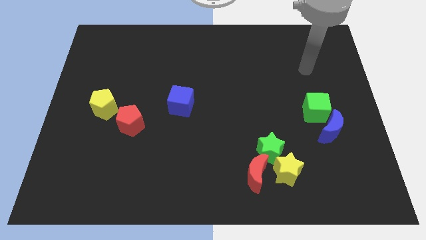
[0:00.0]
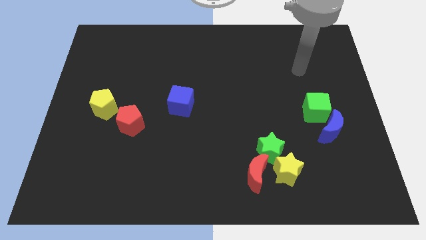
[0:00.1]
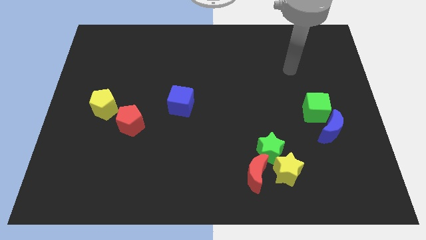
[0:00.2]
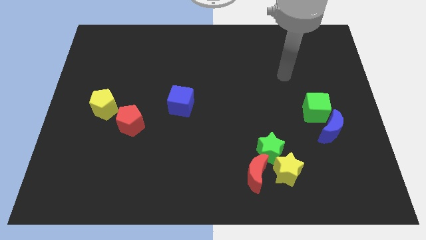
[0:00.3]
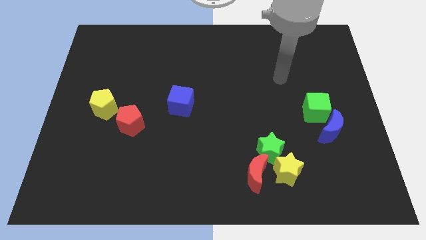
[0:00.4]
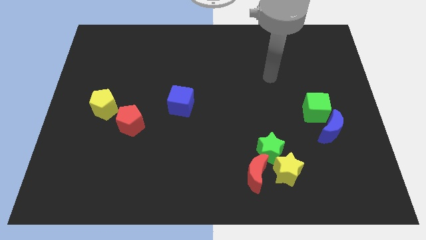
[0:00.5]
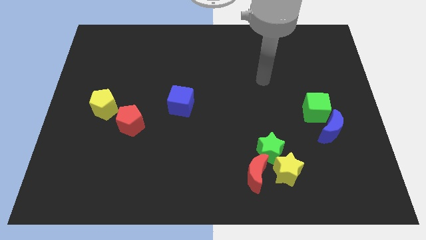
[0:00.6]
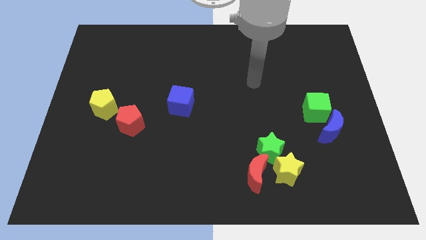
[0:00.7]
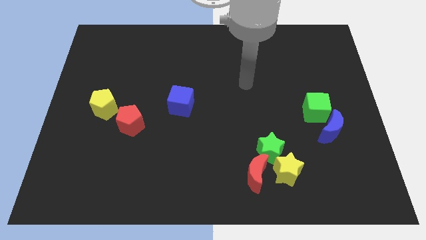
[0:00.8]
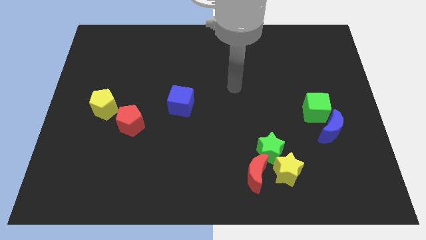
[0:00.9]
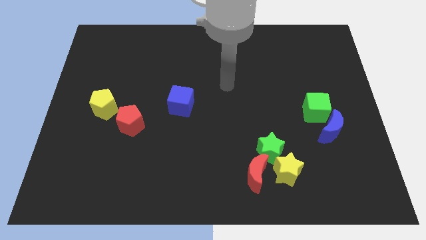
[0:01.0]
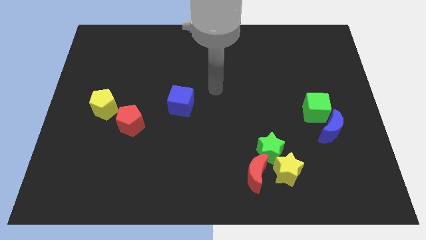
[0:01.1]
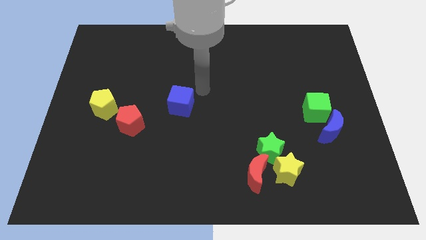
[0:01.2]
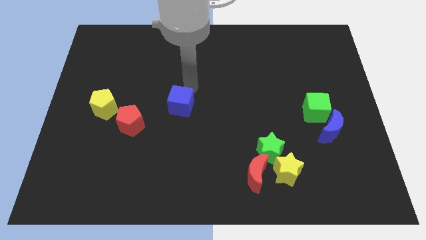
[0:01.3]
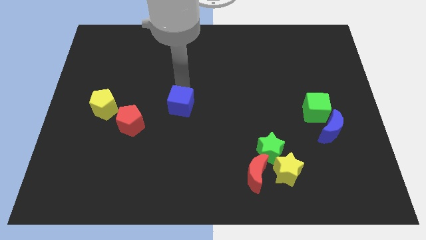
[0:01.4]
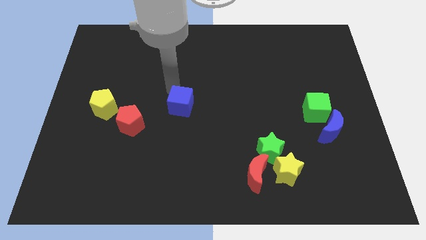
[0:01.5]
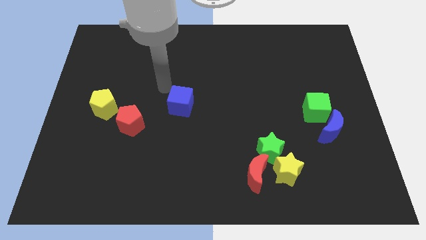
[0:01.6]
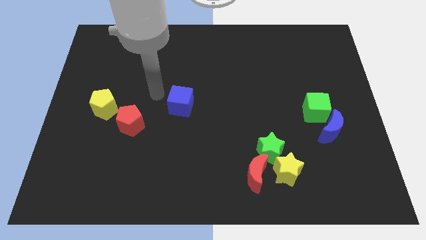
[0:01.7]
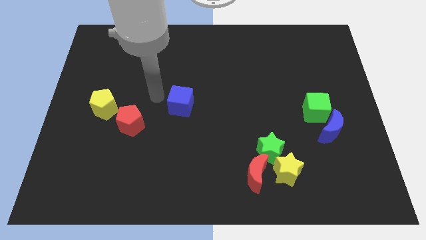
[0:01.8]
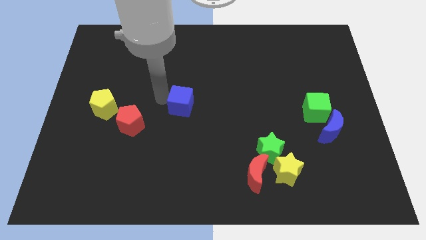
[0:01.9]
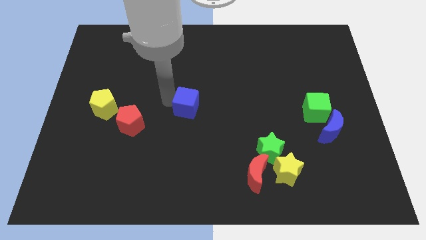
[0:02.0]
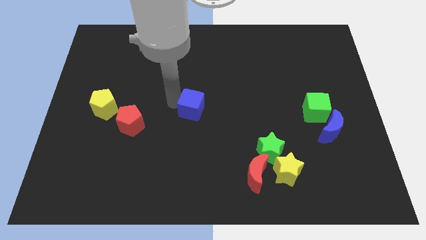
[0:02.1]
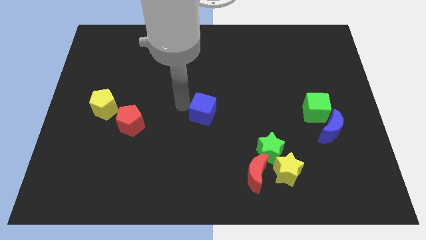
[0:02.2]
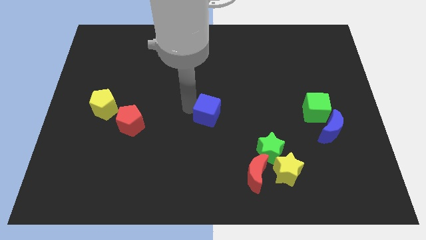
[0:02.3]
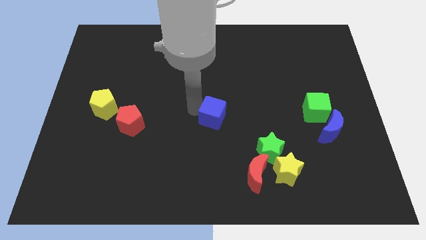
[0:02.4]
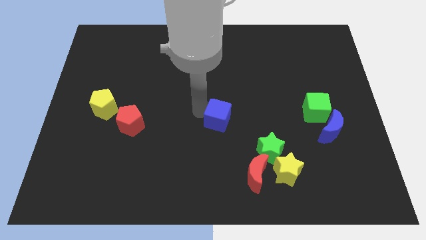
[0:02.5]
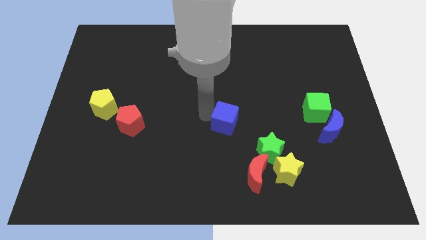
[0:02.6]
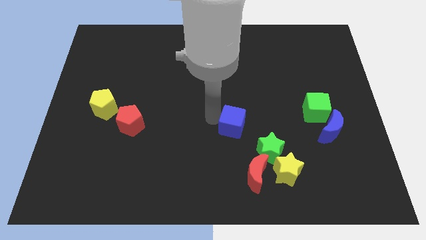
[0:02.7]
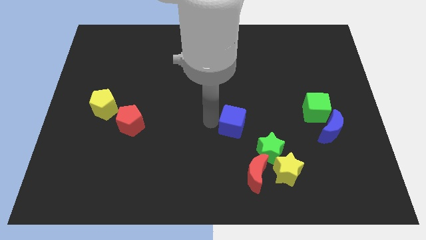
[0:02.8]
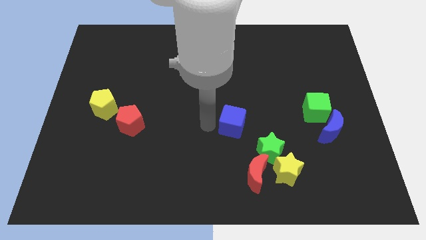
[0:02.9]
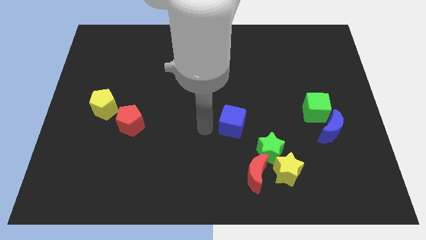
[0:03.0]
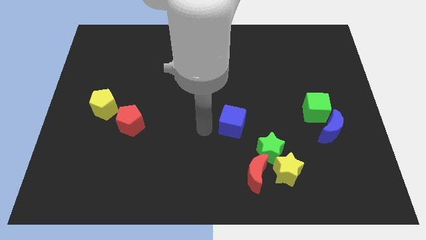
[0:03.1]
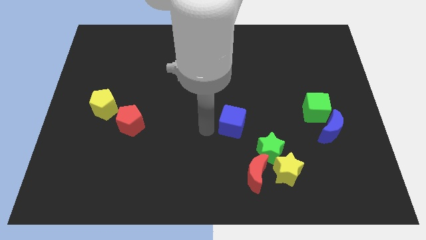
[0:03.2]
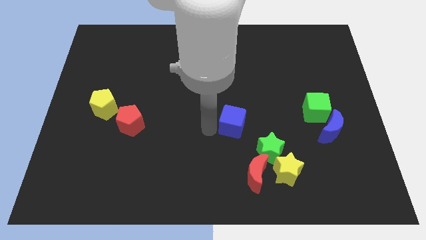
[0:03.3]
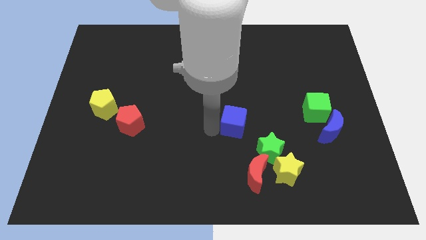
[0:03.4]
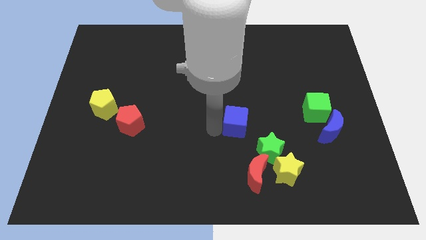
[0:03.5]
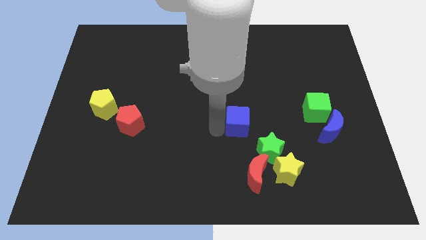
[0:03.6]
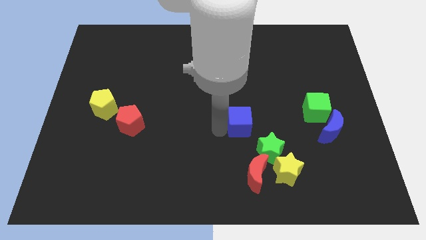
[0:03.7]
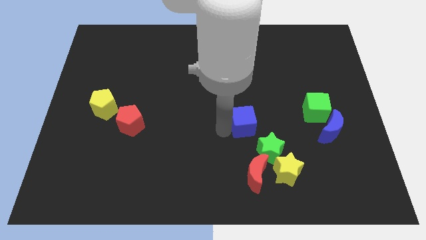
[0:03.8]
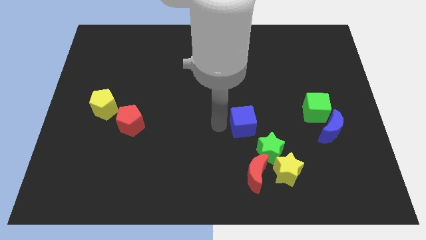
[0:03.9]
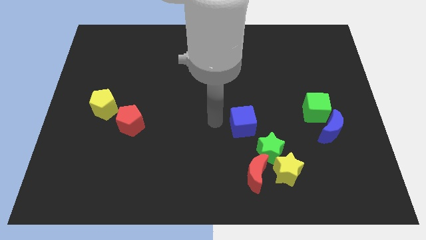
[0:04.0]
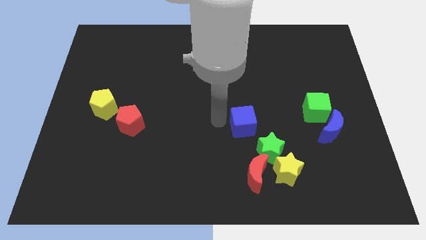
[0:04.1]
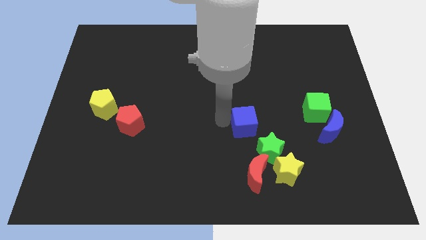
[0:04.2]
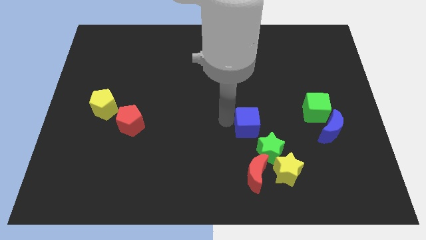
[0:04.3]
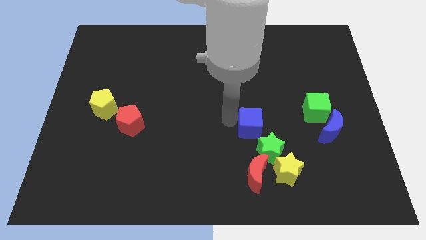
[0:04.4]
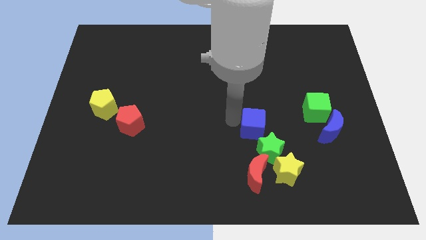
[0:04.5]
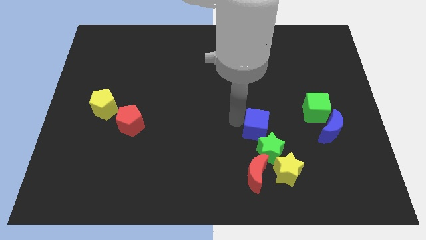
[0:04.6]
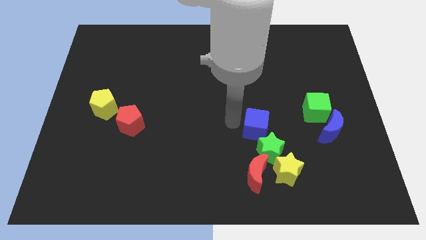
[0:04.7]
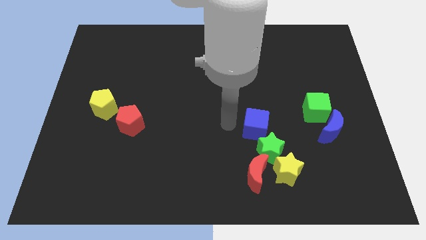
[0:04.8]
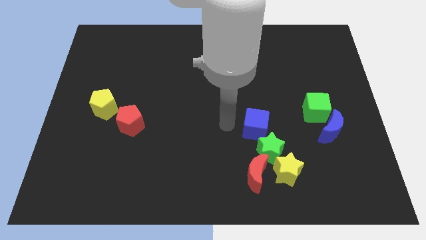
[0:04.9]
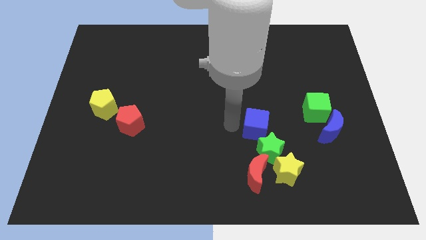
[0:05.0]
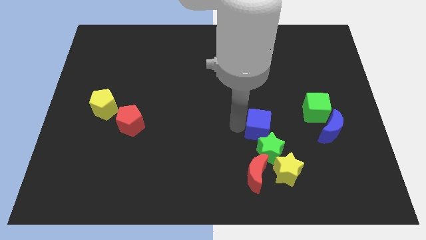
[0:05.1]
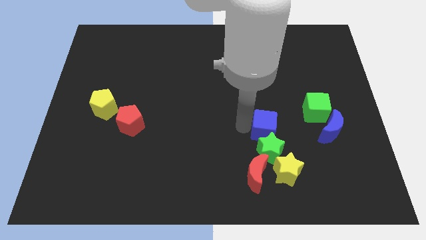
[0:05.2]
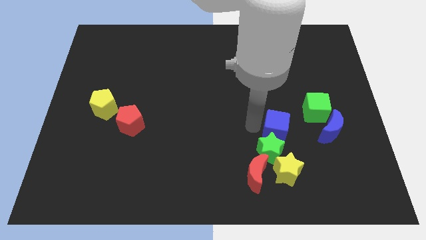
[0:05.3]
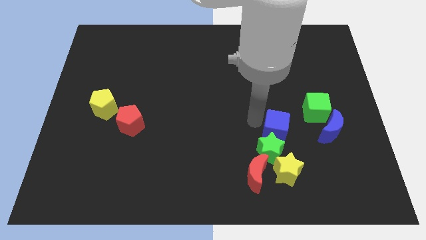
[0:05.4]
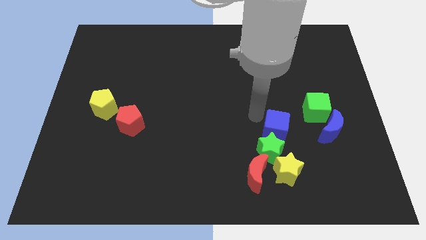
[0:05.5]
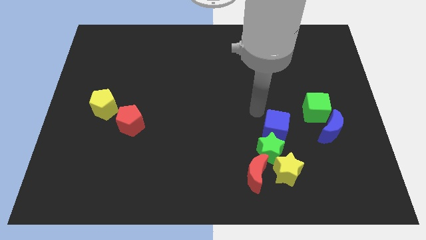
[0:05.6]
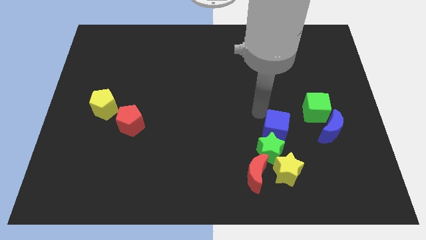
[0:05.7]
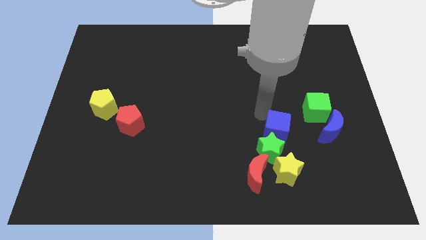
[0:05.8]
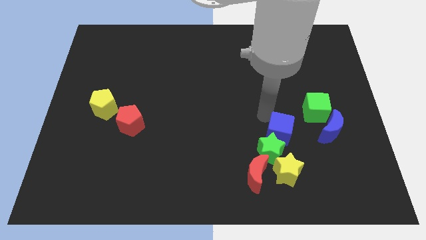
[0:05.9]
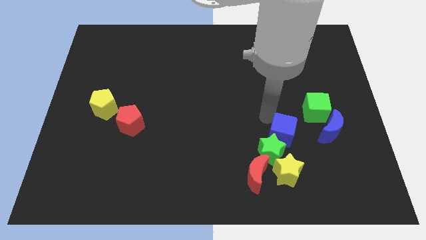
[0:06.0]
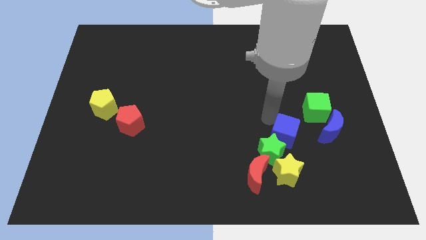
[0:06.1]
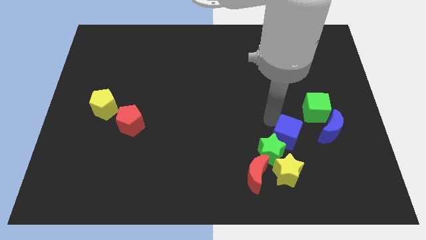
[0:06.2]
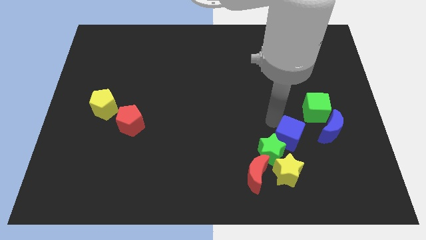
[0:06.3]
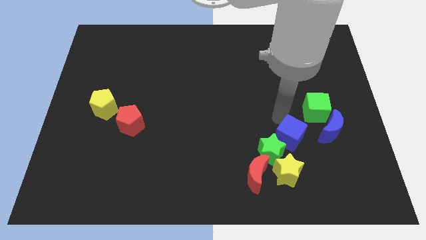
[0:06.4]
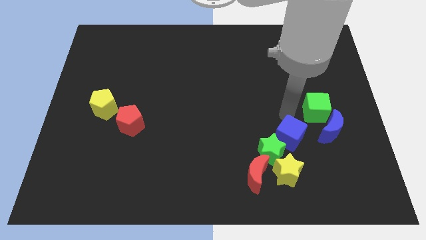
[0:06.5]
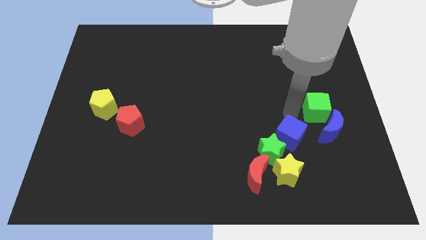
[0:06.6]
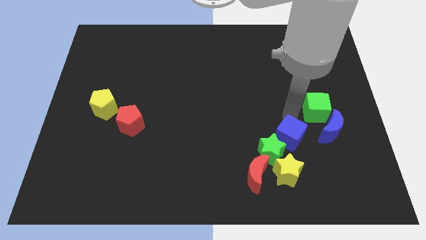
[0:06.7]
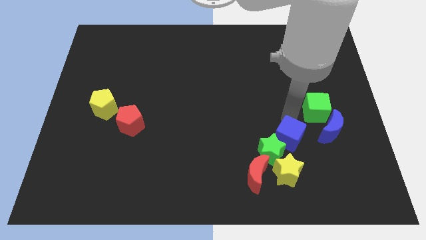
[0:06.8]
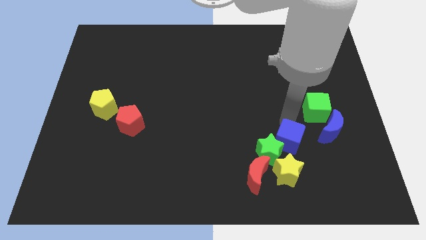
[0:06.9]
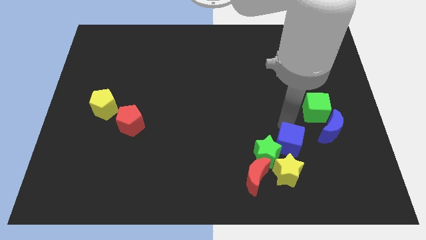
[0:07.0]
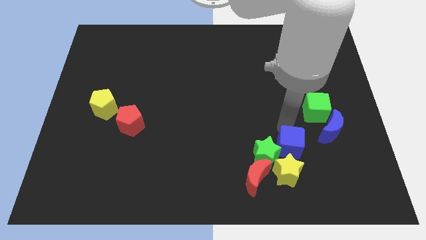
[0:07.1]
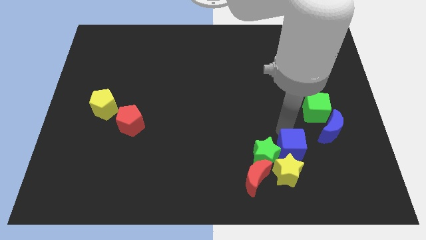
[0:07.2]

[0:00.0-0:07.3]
move the blue cube close to the yellow star

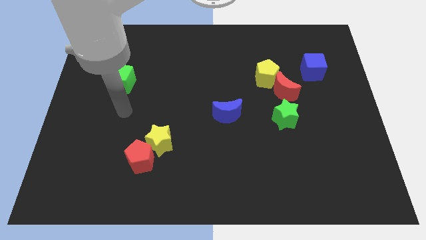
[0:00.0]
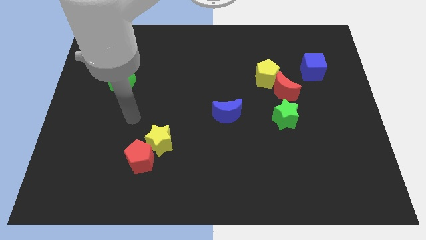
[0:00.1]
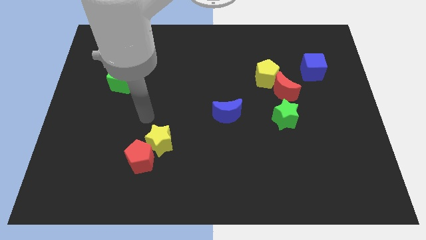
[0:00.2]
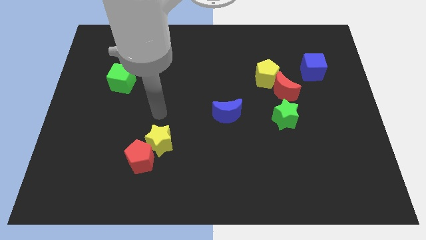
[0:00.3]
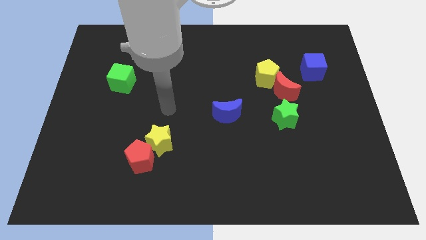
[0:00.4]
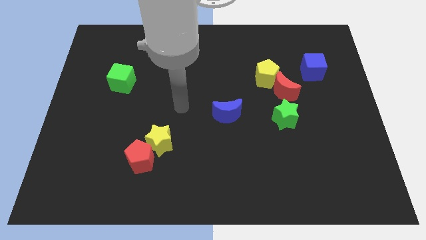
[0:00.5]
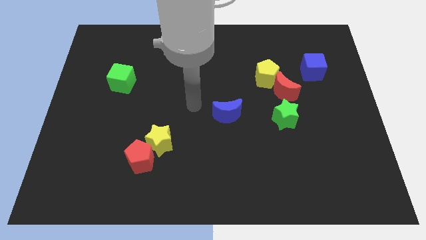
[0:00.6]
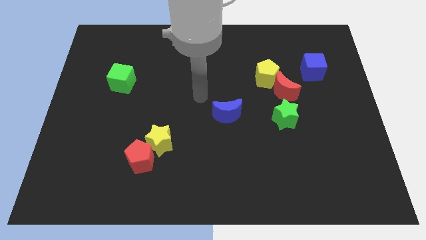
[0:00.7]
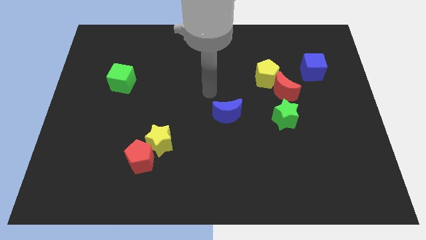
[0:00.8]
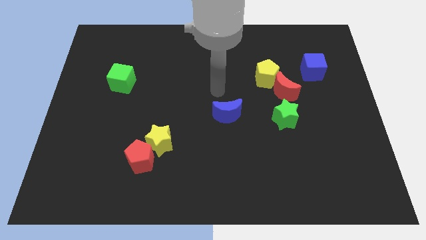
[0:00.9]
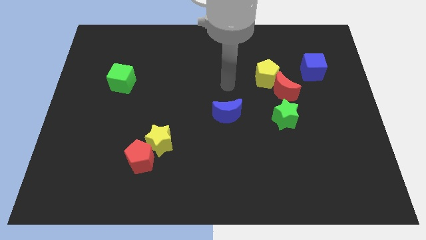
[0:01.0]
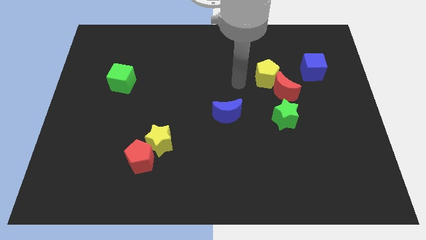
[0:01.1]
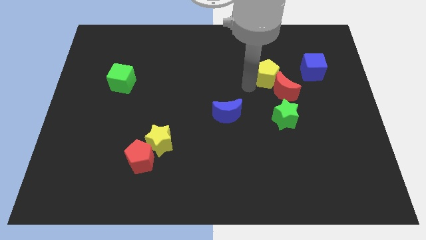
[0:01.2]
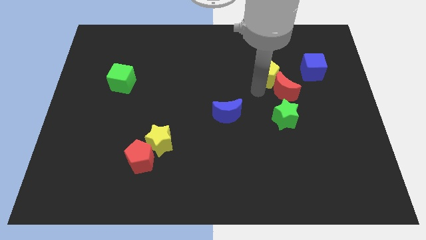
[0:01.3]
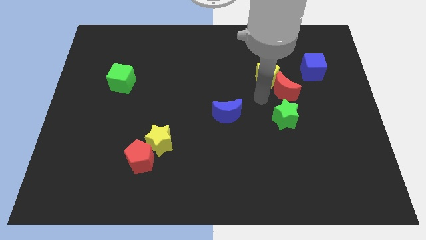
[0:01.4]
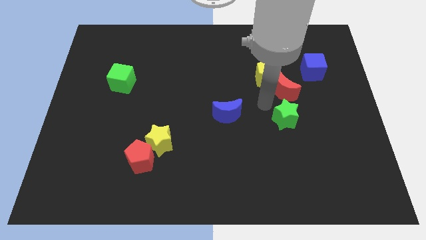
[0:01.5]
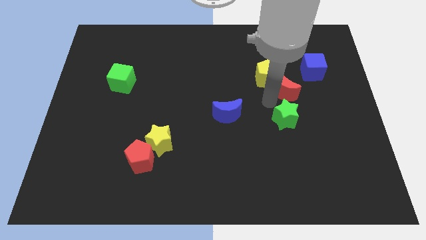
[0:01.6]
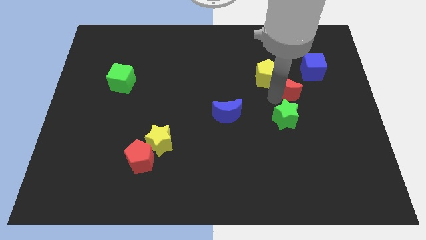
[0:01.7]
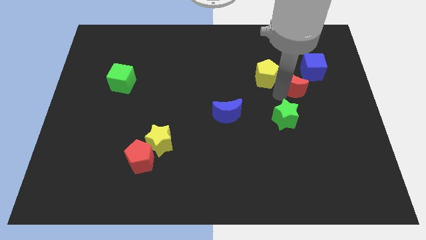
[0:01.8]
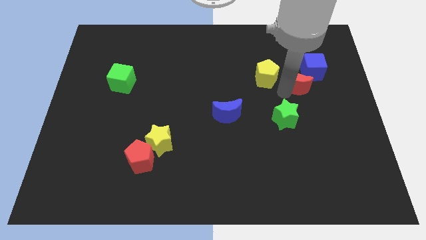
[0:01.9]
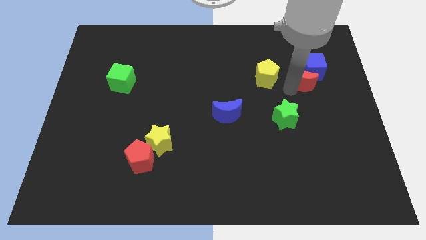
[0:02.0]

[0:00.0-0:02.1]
put the red moon to the blue cube
